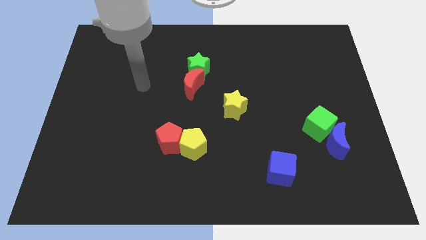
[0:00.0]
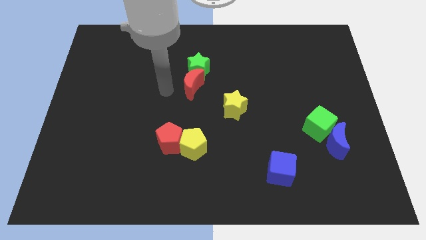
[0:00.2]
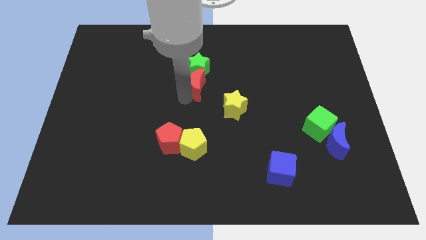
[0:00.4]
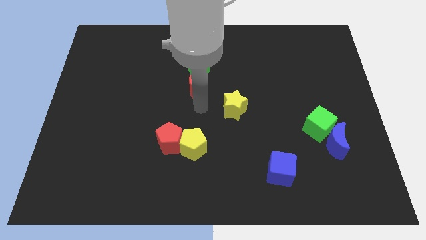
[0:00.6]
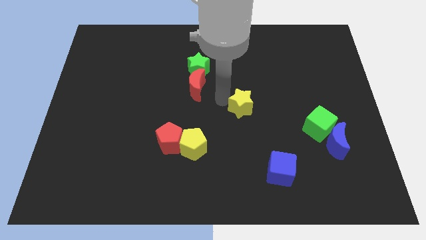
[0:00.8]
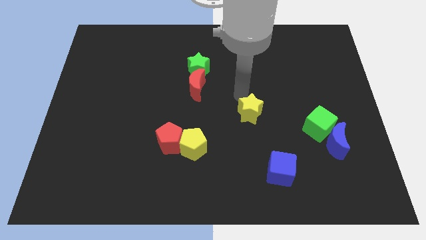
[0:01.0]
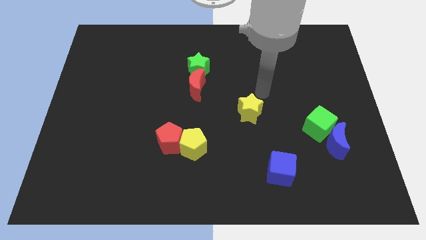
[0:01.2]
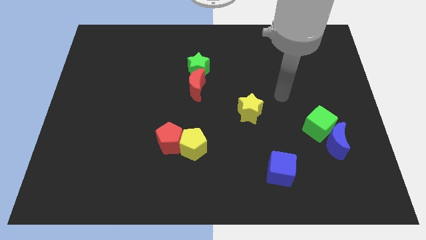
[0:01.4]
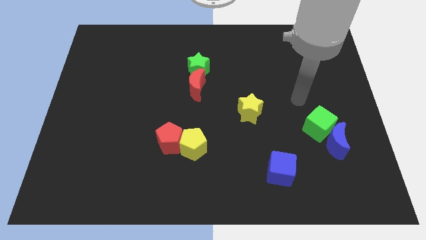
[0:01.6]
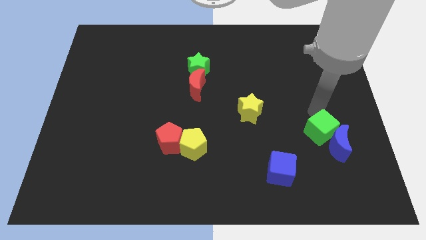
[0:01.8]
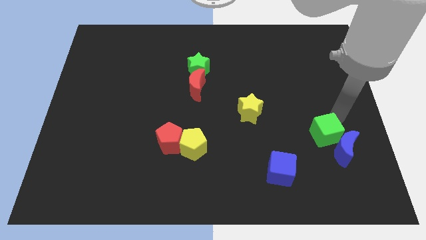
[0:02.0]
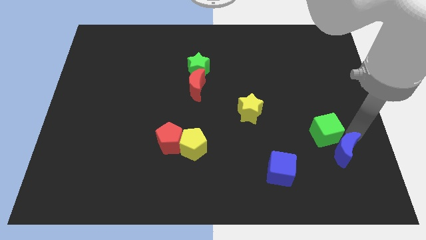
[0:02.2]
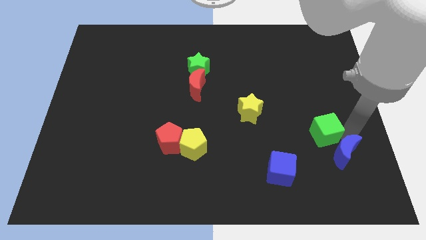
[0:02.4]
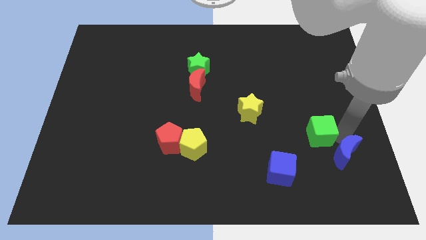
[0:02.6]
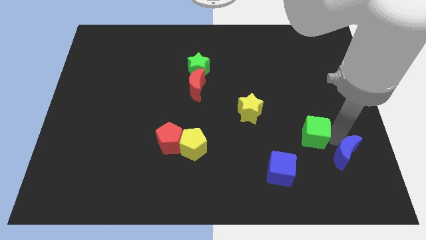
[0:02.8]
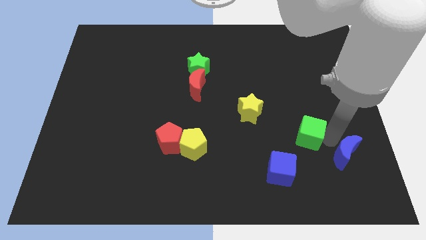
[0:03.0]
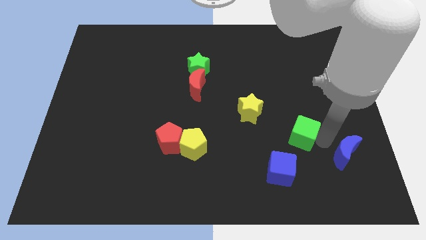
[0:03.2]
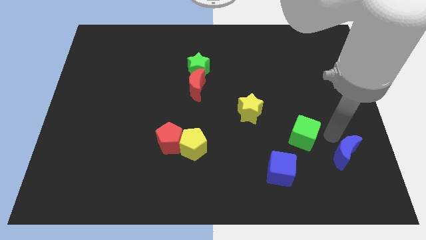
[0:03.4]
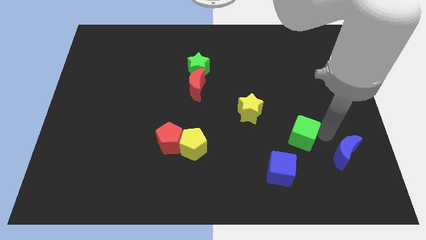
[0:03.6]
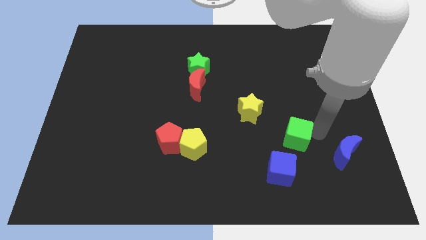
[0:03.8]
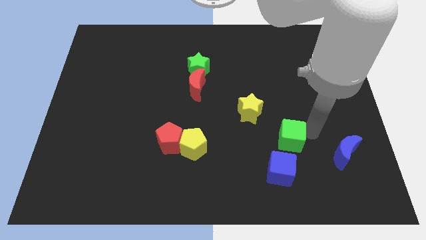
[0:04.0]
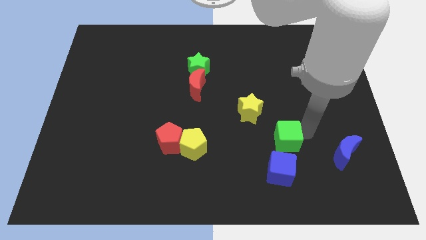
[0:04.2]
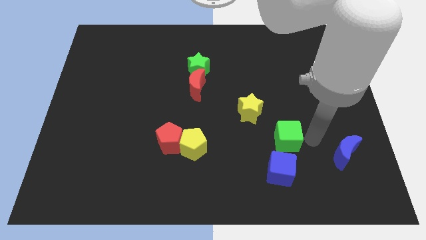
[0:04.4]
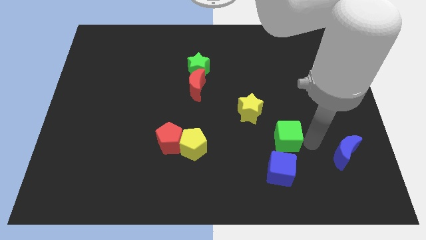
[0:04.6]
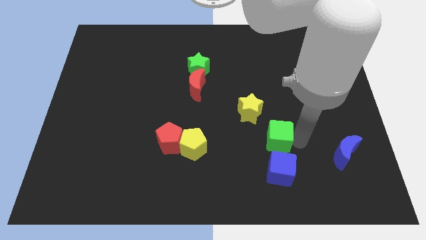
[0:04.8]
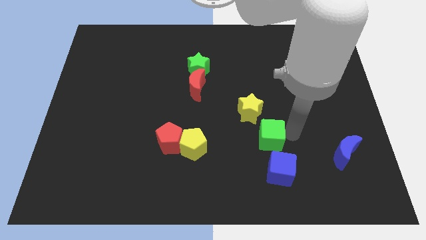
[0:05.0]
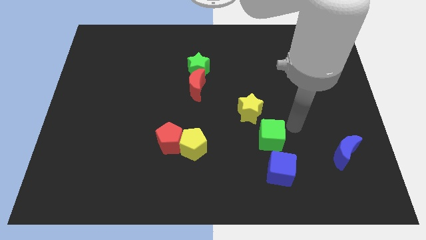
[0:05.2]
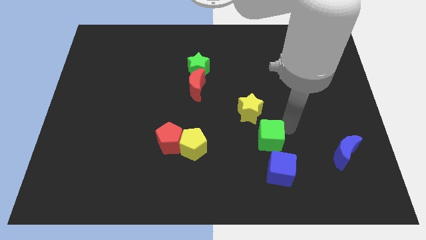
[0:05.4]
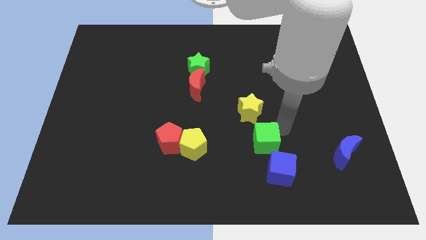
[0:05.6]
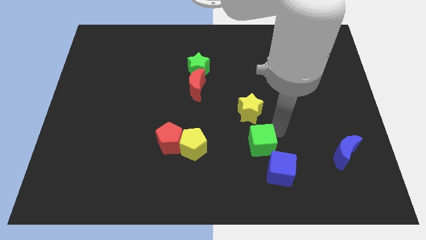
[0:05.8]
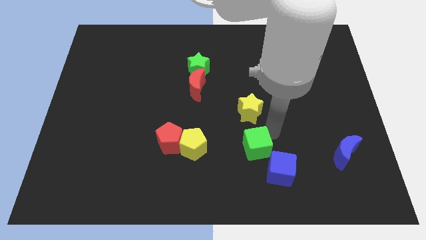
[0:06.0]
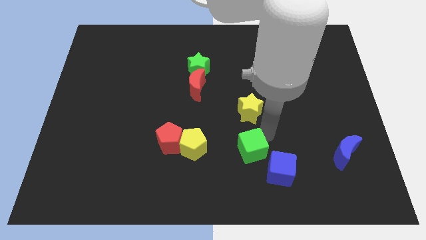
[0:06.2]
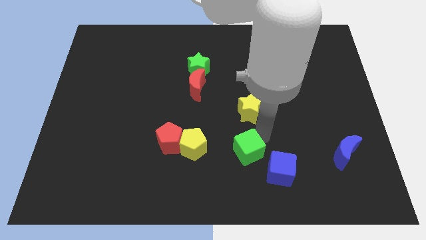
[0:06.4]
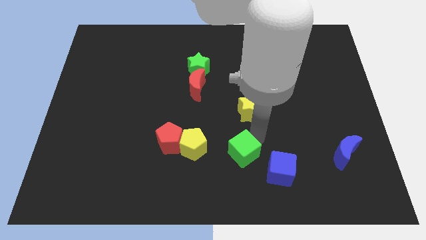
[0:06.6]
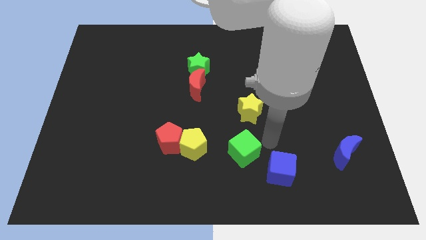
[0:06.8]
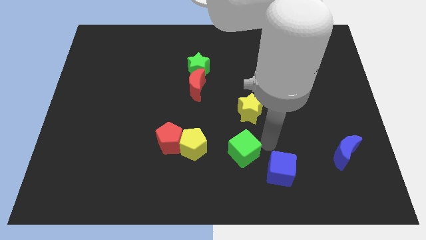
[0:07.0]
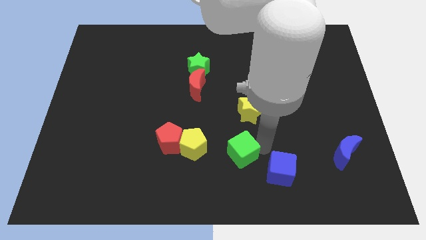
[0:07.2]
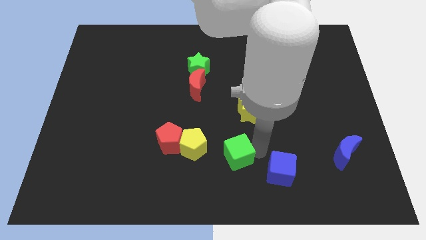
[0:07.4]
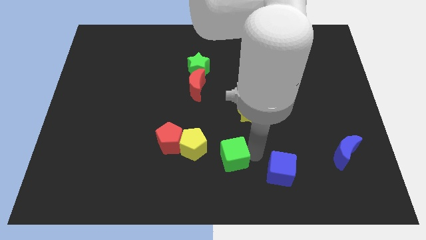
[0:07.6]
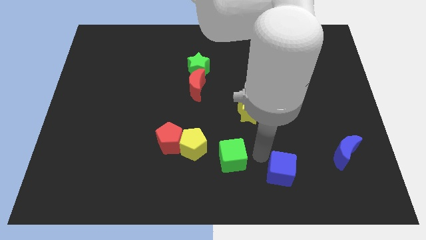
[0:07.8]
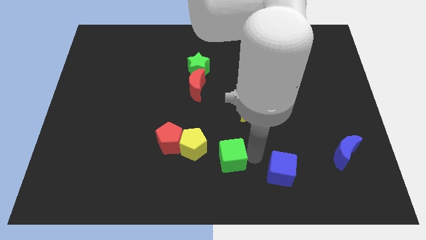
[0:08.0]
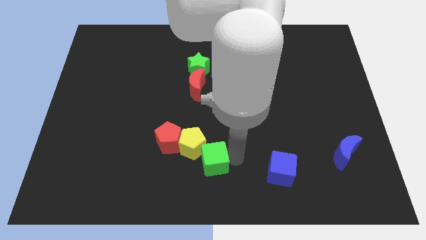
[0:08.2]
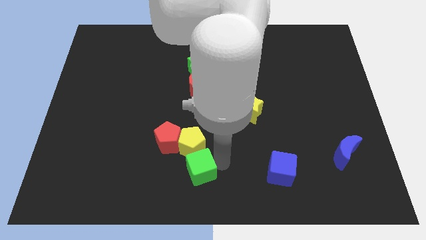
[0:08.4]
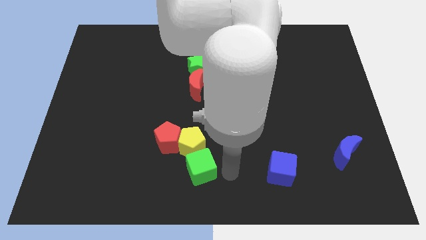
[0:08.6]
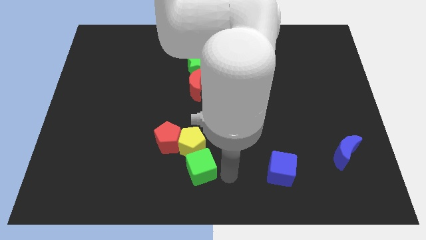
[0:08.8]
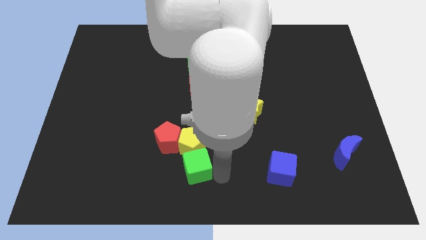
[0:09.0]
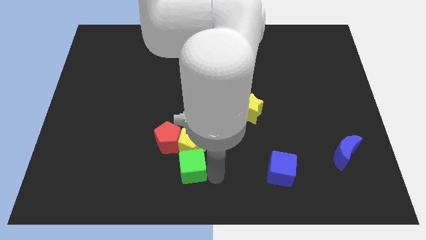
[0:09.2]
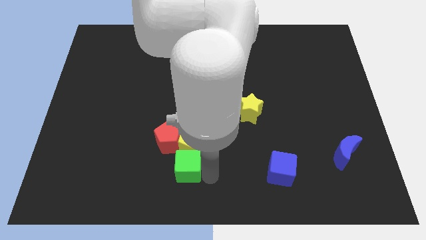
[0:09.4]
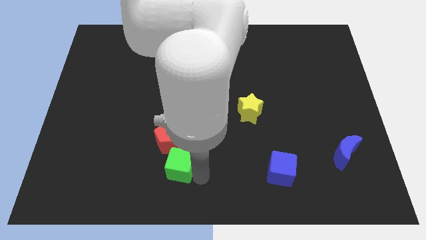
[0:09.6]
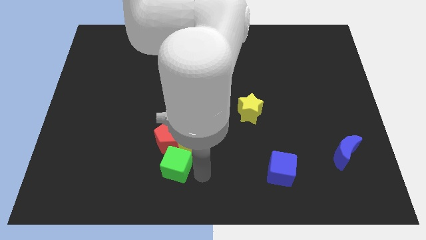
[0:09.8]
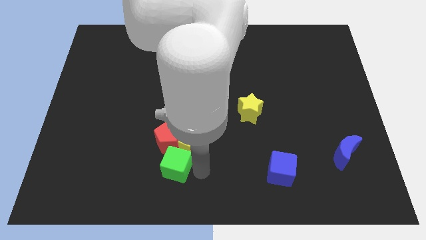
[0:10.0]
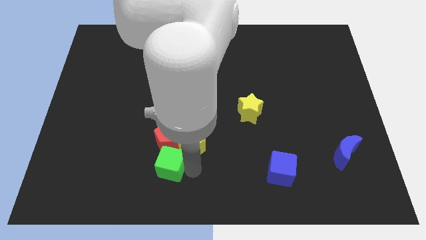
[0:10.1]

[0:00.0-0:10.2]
put the green cube to the bottom left side of the red pentagon

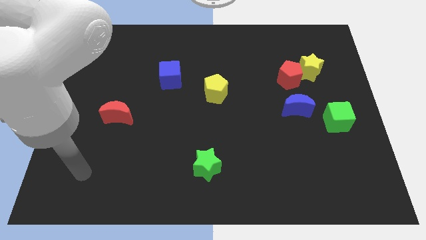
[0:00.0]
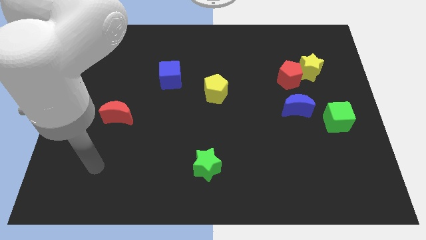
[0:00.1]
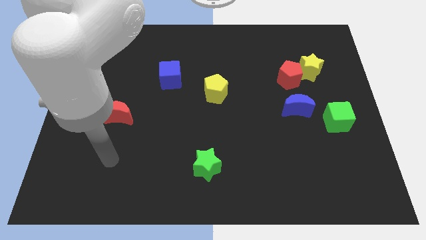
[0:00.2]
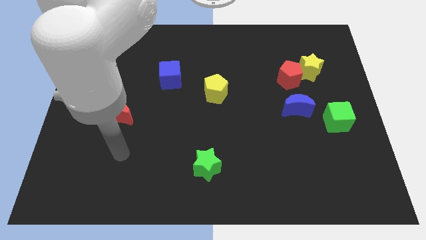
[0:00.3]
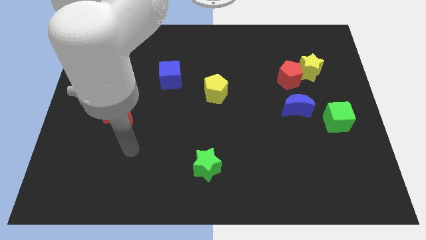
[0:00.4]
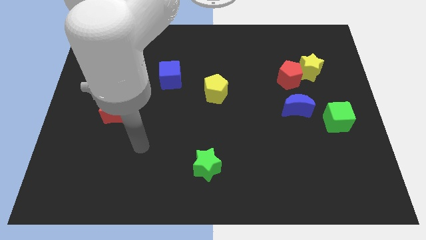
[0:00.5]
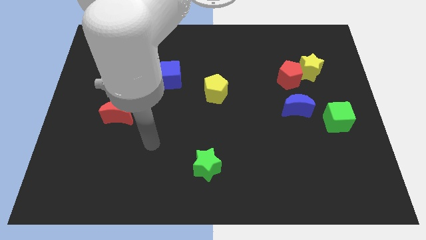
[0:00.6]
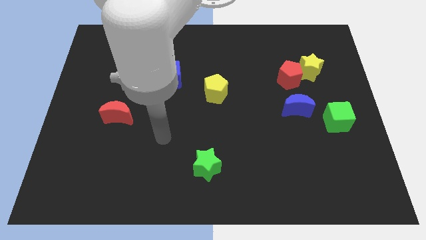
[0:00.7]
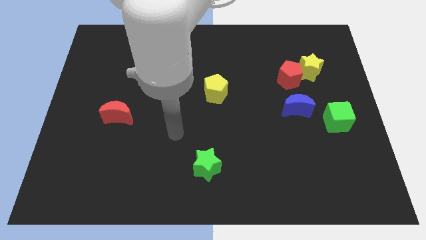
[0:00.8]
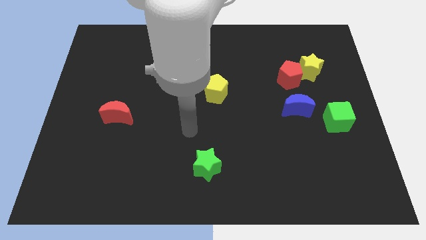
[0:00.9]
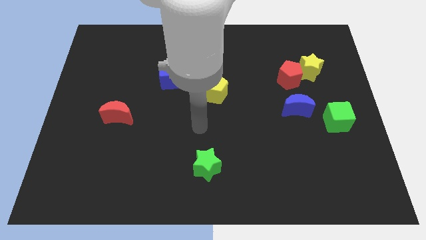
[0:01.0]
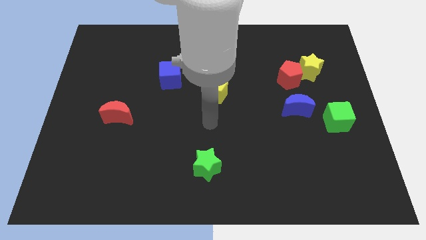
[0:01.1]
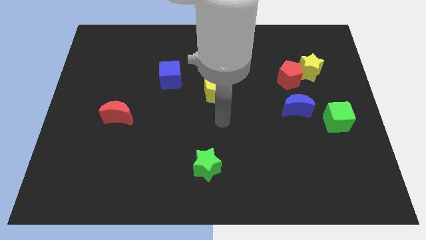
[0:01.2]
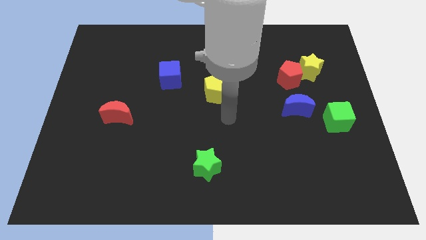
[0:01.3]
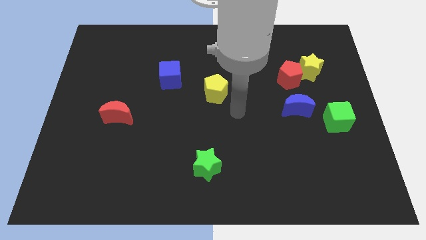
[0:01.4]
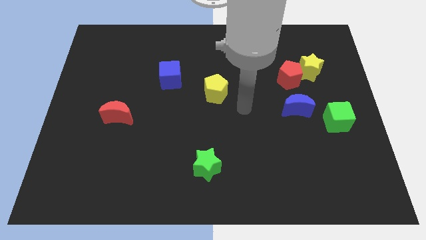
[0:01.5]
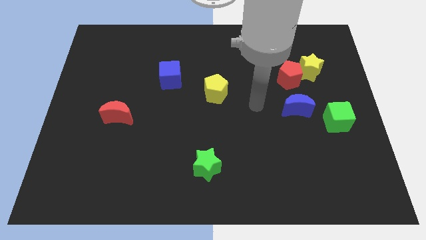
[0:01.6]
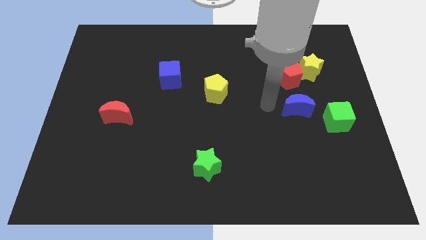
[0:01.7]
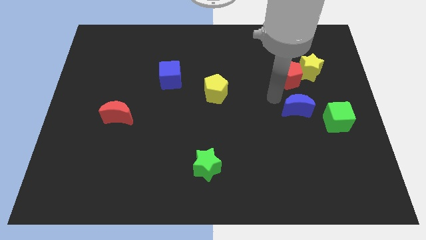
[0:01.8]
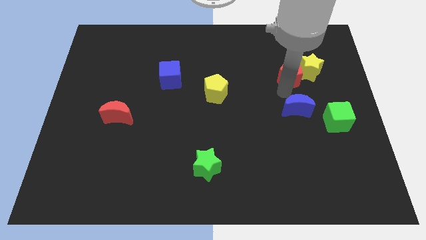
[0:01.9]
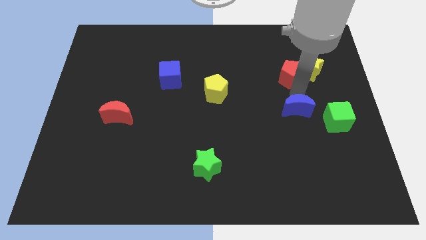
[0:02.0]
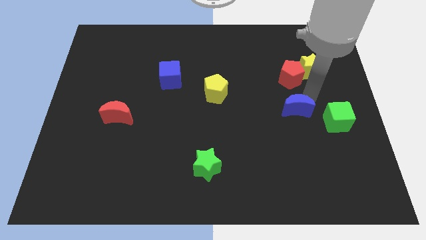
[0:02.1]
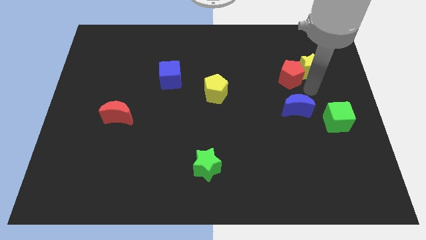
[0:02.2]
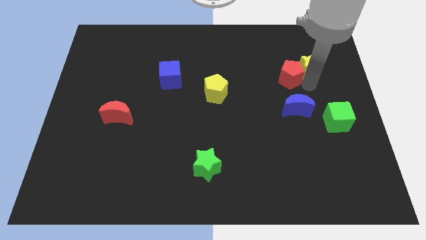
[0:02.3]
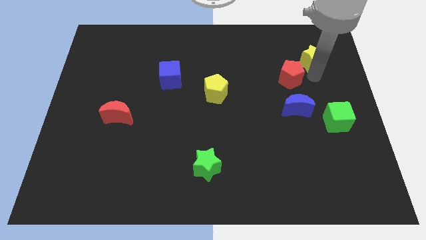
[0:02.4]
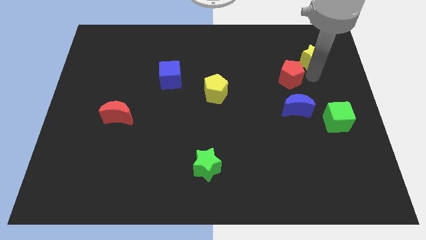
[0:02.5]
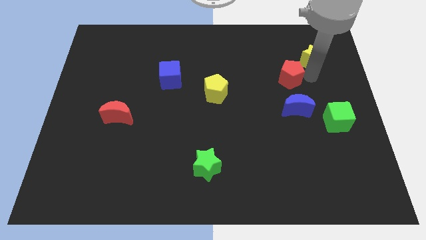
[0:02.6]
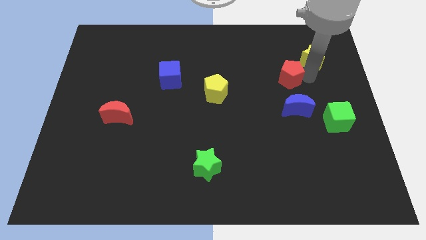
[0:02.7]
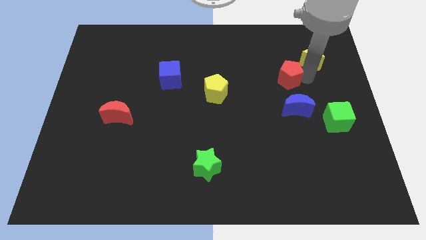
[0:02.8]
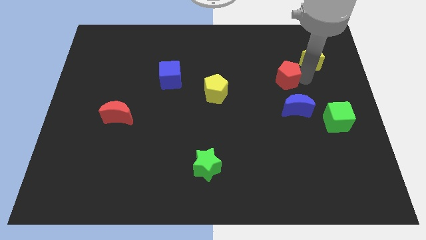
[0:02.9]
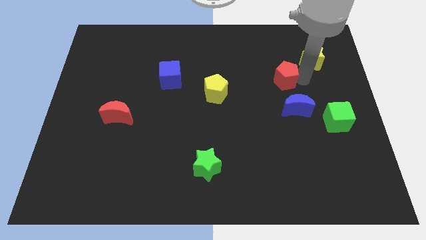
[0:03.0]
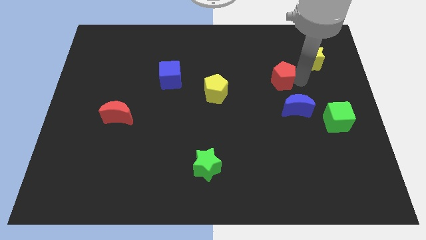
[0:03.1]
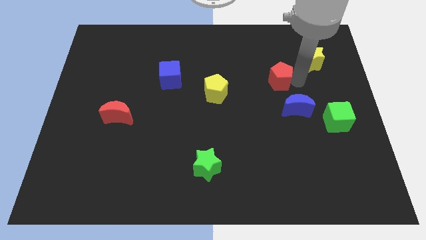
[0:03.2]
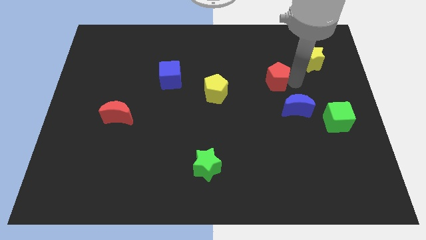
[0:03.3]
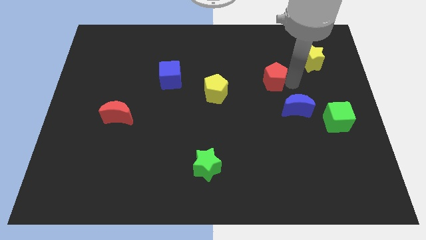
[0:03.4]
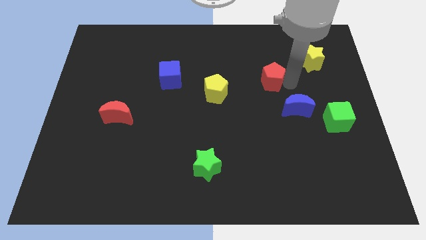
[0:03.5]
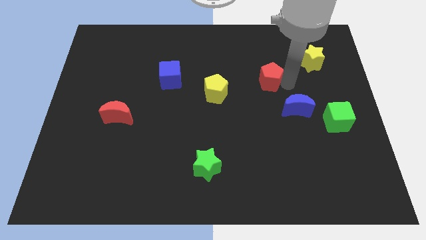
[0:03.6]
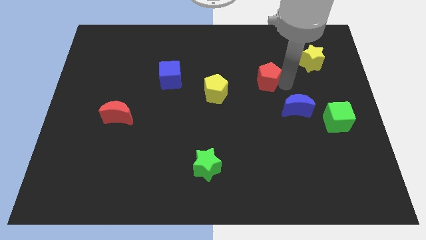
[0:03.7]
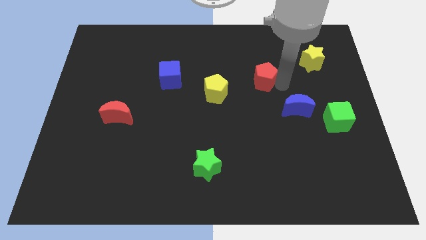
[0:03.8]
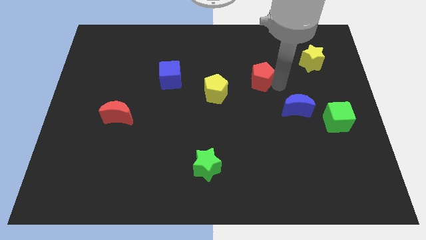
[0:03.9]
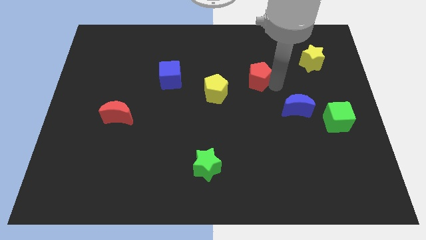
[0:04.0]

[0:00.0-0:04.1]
put the red pentagon diagonally up and to the right of the yellow pentagon
